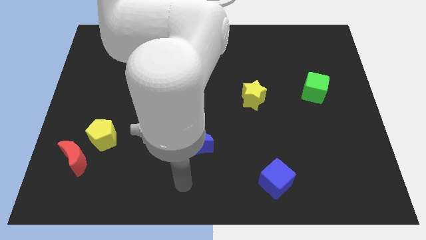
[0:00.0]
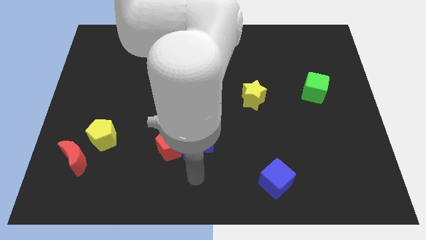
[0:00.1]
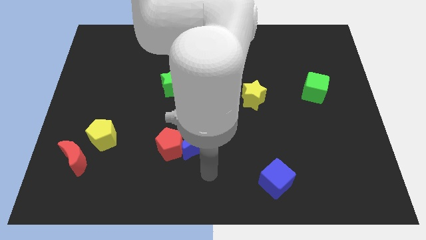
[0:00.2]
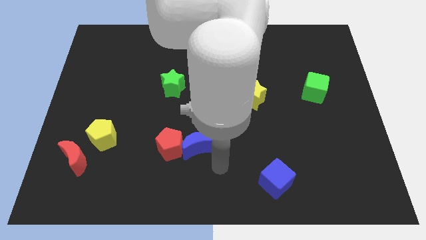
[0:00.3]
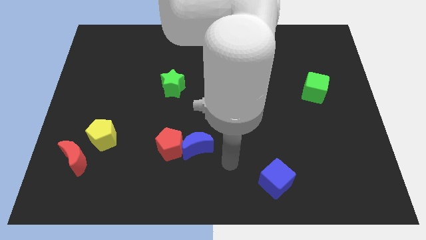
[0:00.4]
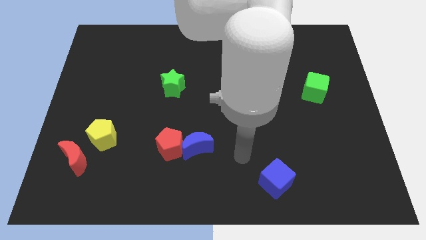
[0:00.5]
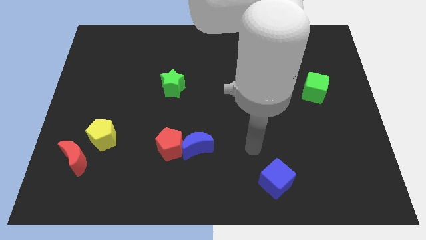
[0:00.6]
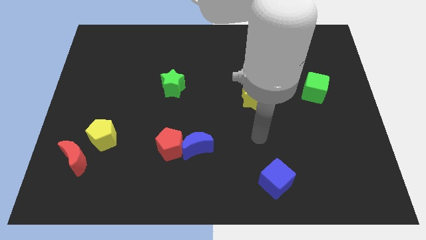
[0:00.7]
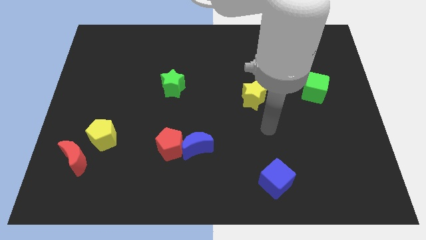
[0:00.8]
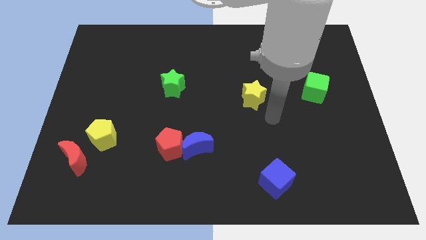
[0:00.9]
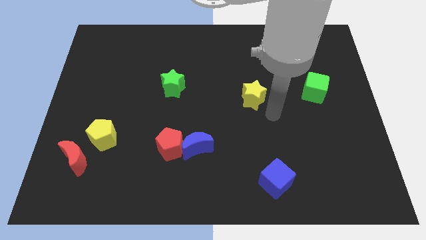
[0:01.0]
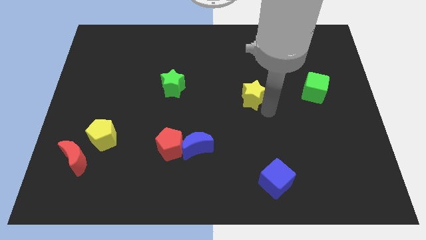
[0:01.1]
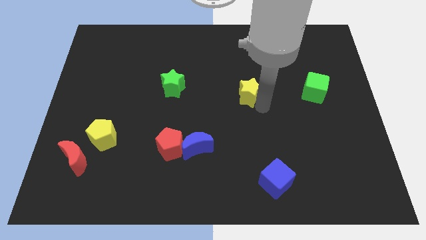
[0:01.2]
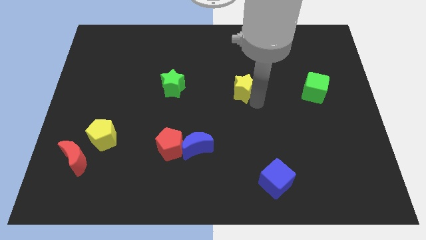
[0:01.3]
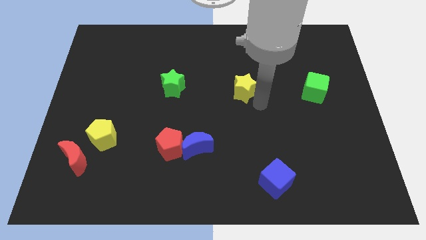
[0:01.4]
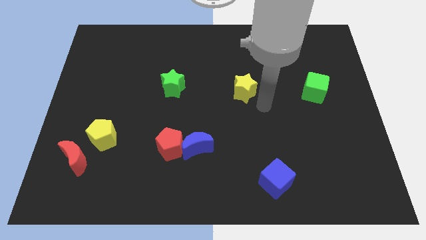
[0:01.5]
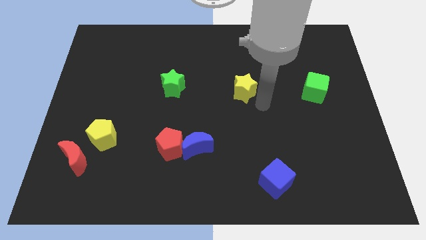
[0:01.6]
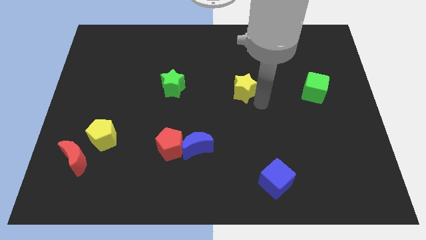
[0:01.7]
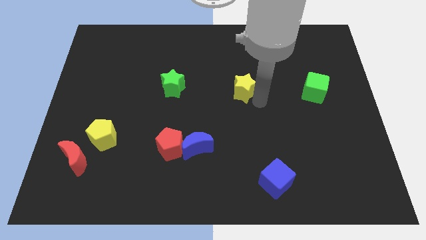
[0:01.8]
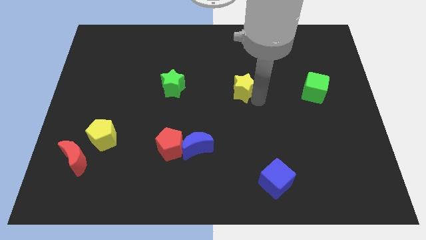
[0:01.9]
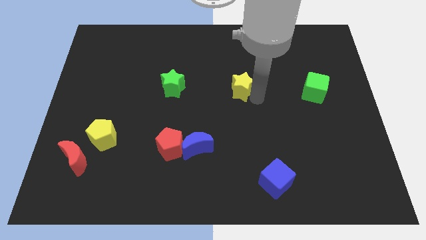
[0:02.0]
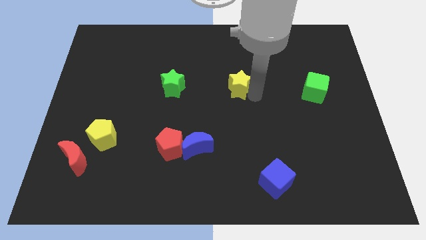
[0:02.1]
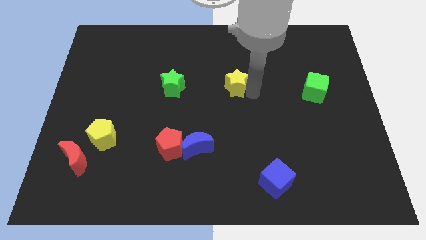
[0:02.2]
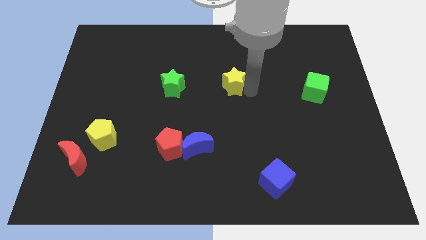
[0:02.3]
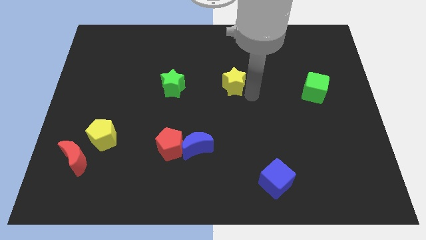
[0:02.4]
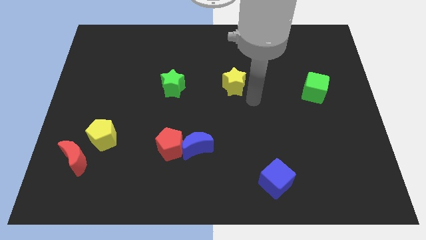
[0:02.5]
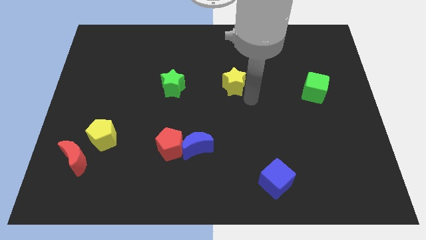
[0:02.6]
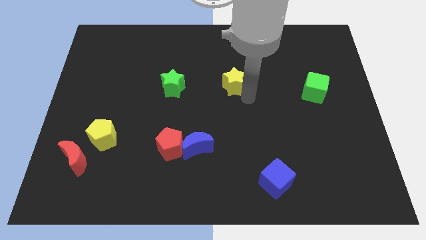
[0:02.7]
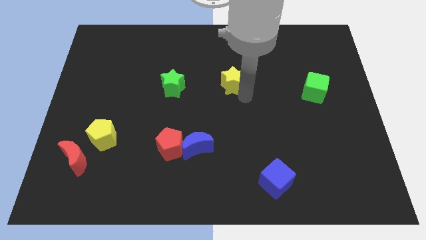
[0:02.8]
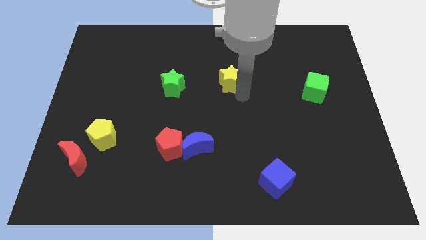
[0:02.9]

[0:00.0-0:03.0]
slightly move the yellow star up and to the left

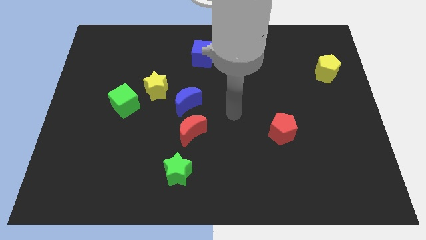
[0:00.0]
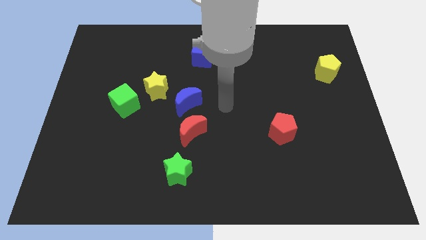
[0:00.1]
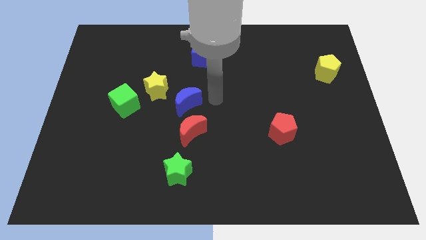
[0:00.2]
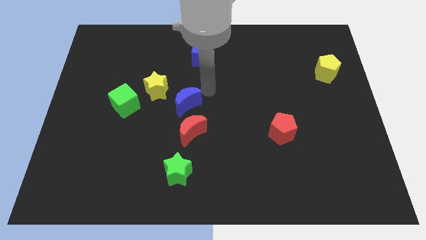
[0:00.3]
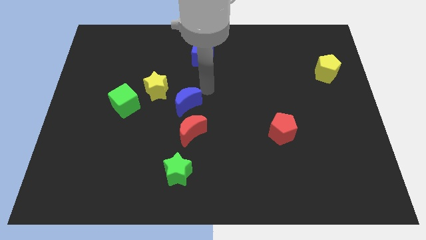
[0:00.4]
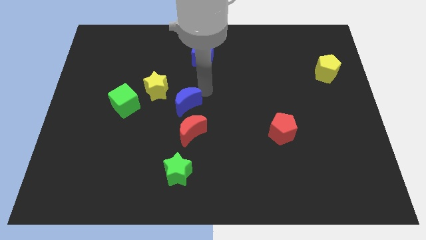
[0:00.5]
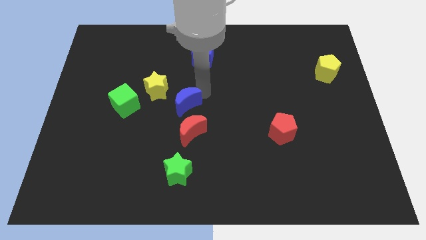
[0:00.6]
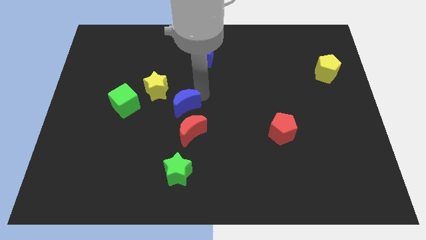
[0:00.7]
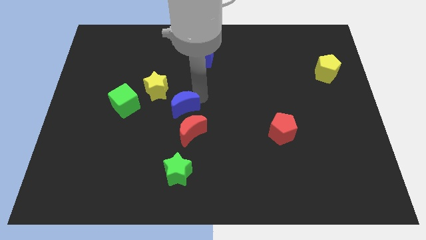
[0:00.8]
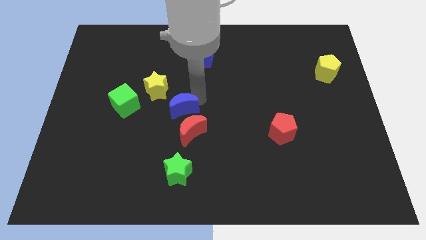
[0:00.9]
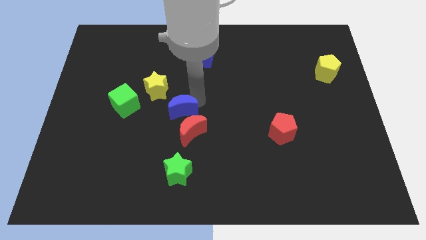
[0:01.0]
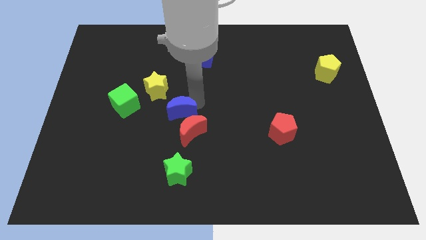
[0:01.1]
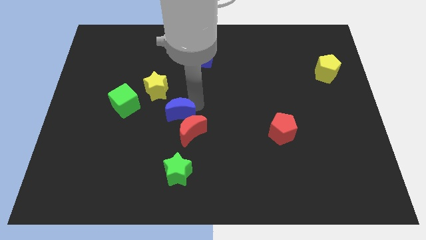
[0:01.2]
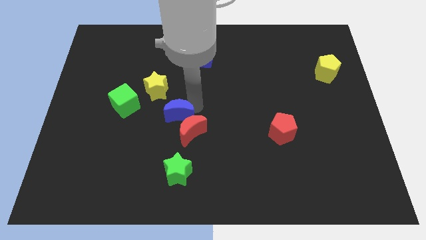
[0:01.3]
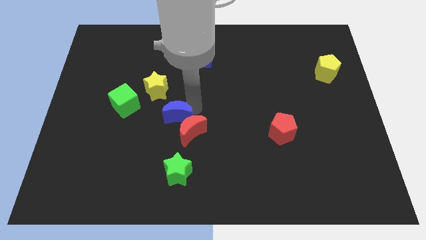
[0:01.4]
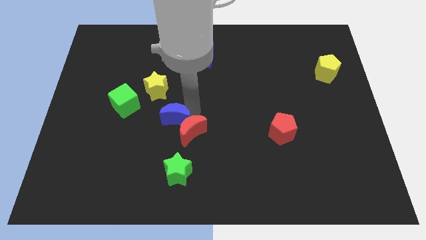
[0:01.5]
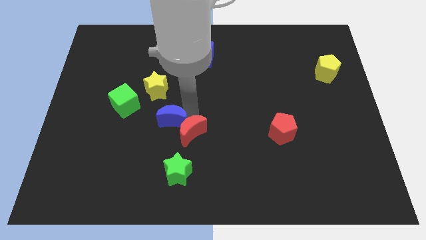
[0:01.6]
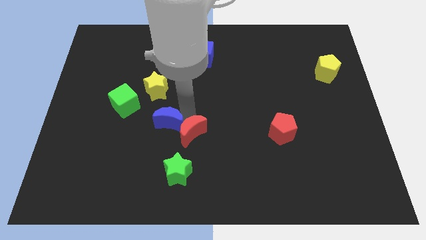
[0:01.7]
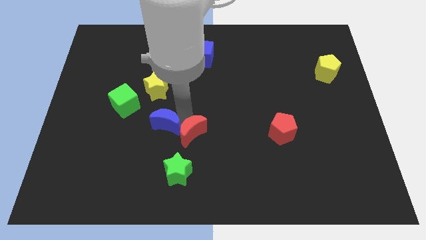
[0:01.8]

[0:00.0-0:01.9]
push the blue moon a little bit diagonally downwards and left

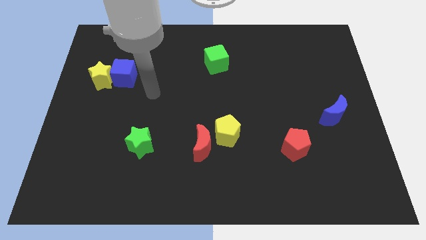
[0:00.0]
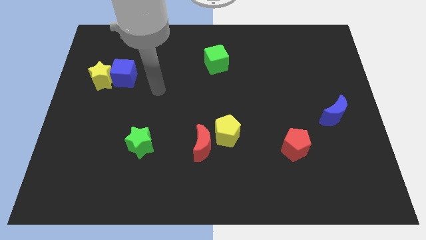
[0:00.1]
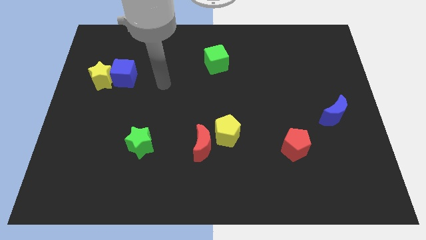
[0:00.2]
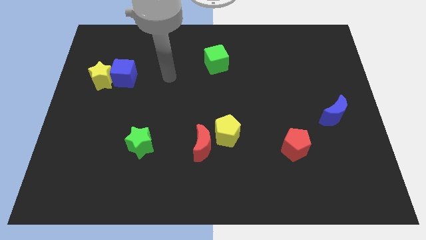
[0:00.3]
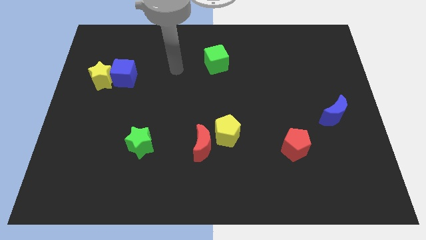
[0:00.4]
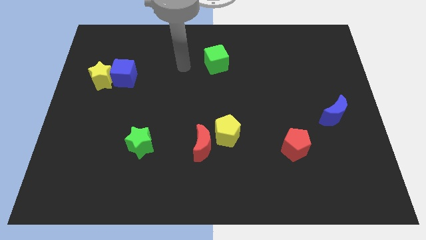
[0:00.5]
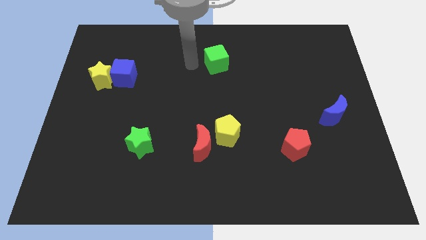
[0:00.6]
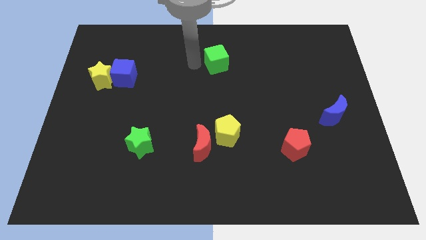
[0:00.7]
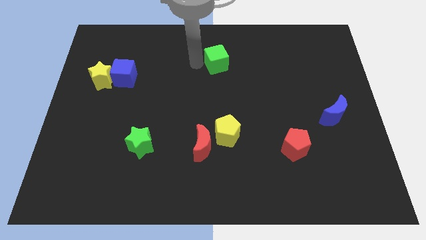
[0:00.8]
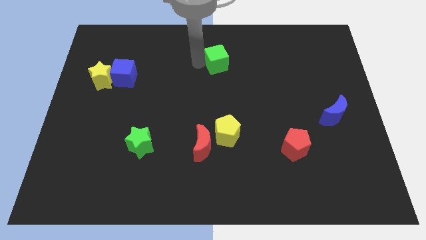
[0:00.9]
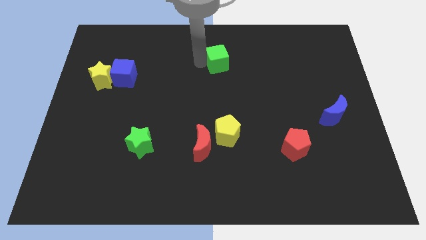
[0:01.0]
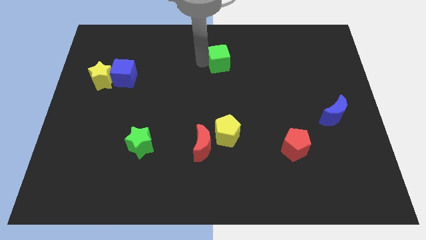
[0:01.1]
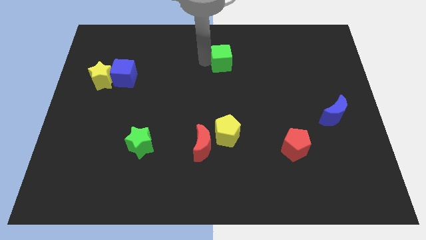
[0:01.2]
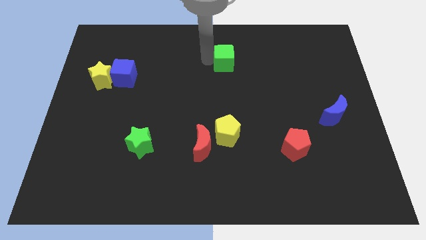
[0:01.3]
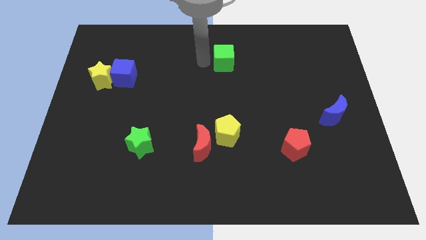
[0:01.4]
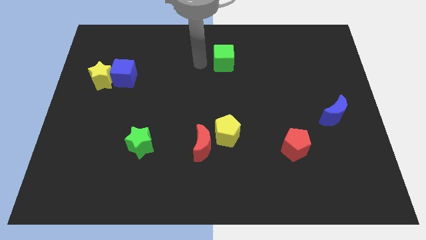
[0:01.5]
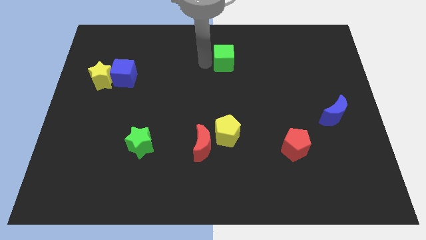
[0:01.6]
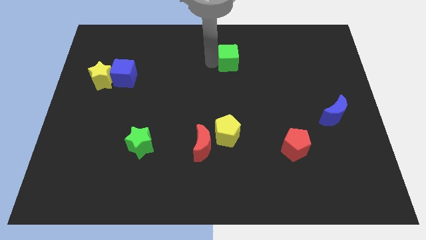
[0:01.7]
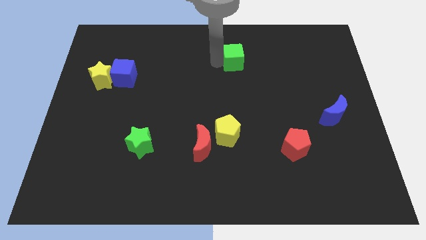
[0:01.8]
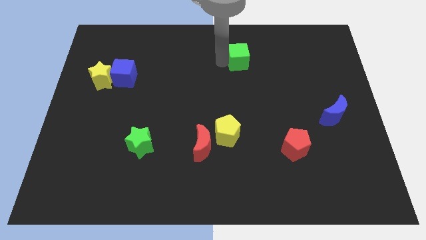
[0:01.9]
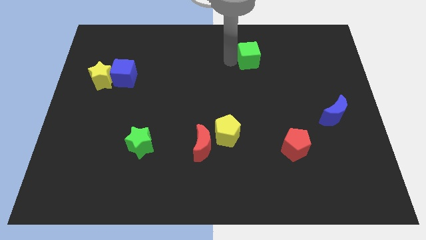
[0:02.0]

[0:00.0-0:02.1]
slightly move the green cube right

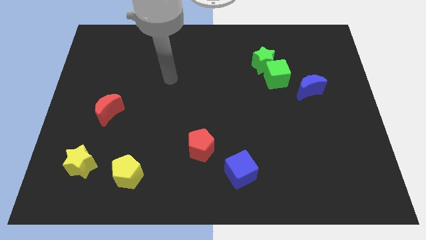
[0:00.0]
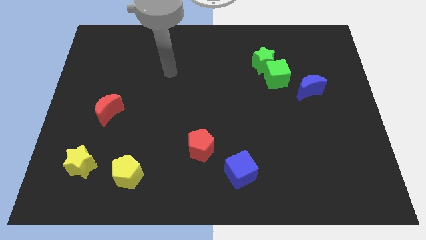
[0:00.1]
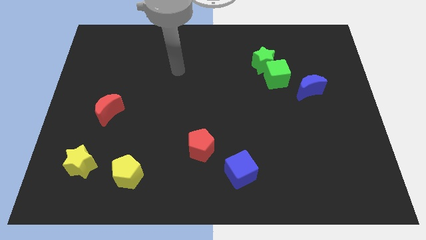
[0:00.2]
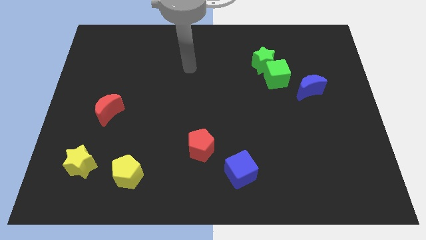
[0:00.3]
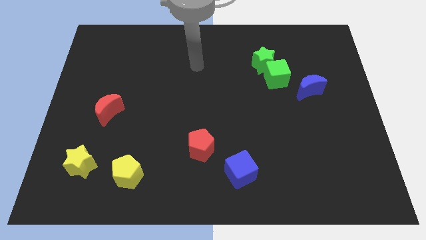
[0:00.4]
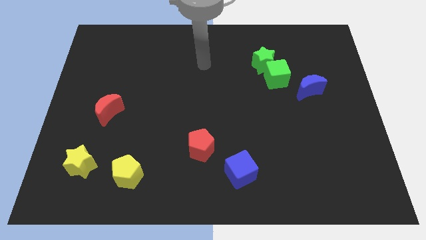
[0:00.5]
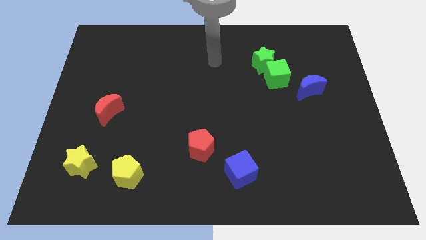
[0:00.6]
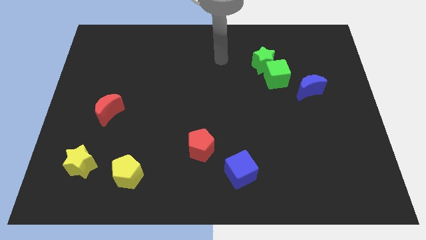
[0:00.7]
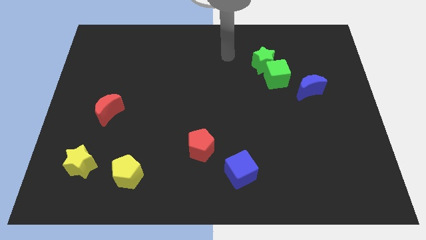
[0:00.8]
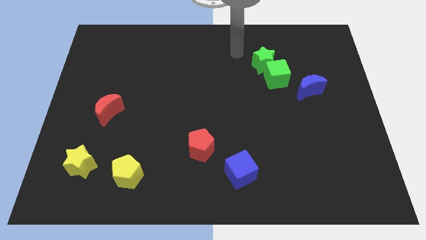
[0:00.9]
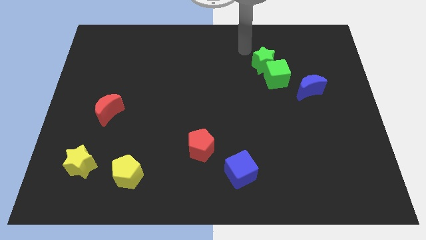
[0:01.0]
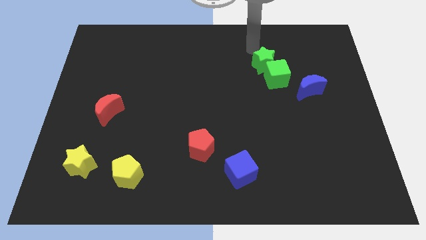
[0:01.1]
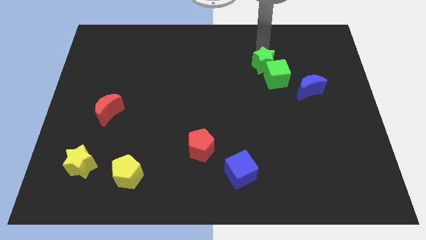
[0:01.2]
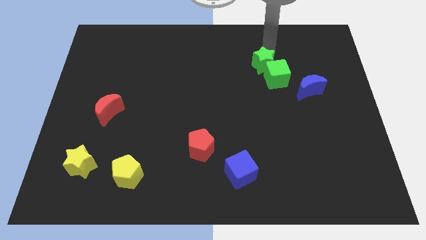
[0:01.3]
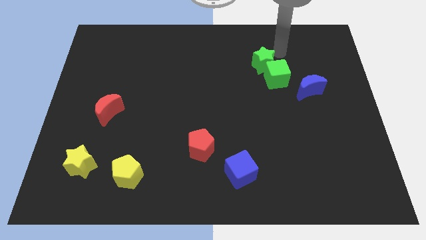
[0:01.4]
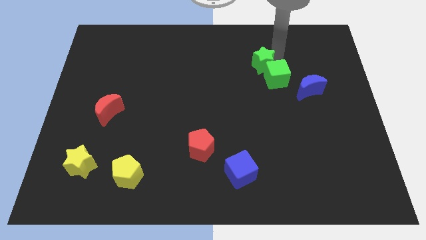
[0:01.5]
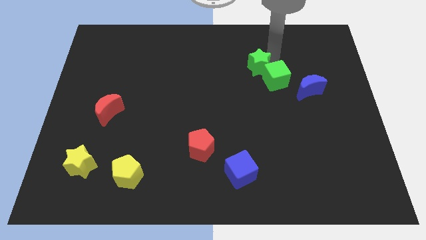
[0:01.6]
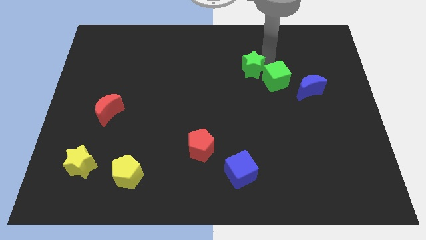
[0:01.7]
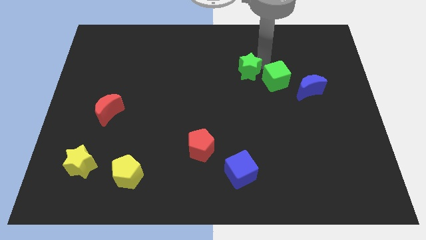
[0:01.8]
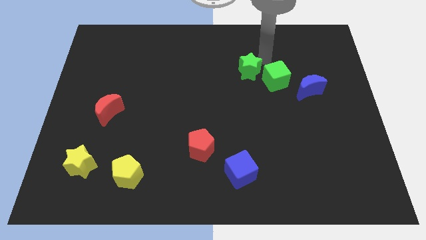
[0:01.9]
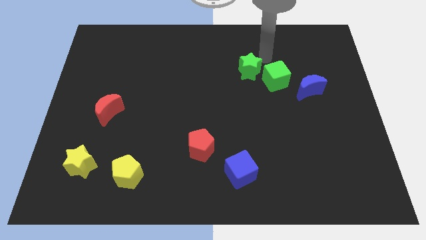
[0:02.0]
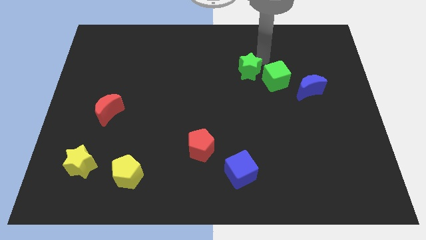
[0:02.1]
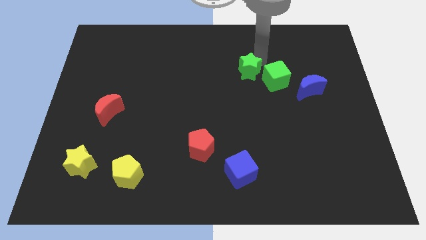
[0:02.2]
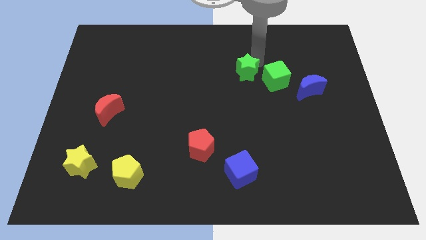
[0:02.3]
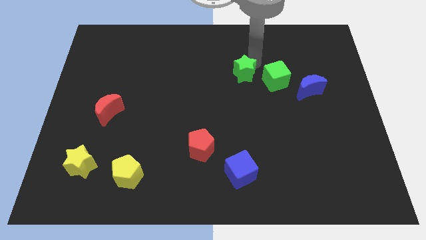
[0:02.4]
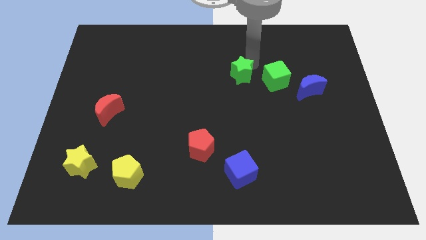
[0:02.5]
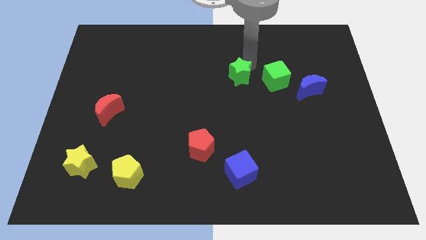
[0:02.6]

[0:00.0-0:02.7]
push the green star downwards and left slightly
